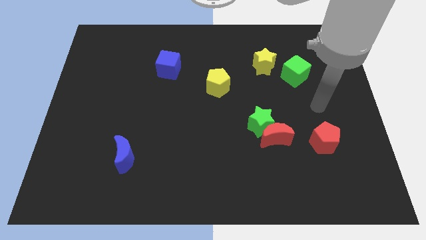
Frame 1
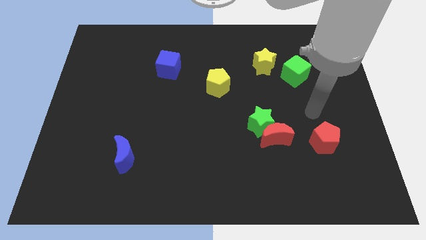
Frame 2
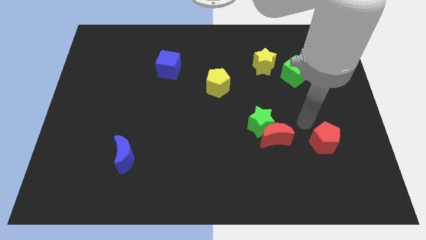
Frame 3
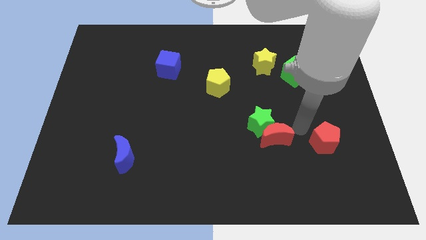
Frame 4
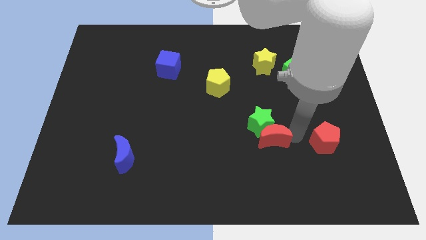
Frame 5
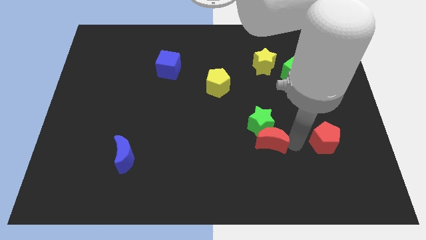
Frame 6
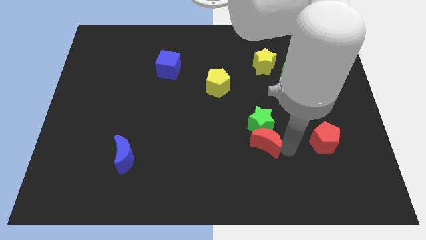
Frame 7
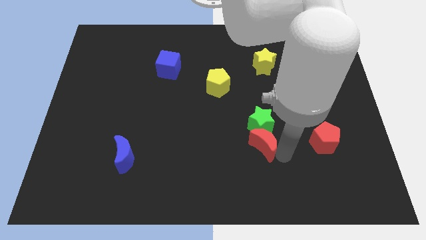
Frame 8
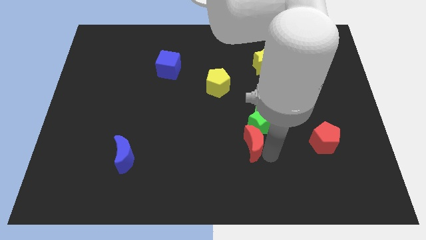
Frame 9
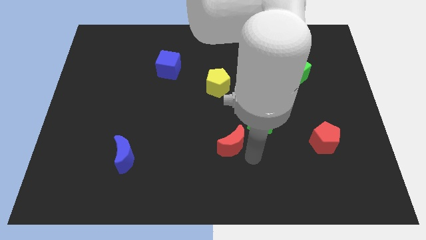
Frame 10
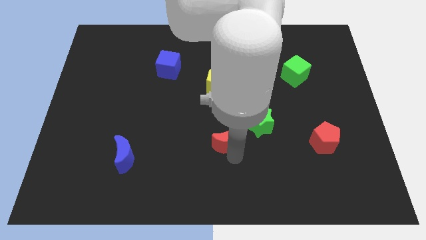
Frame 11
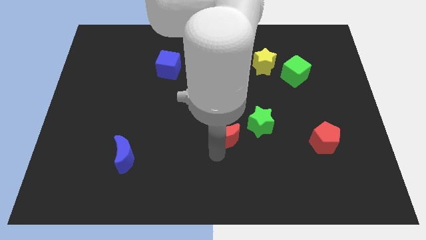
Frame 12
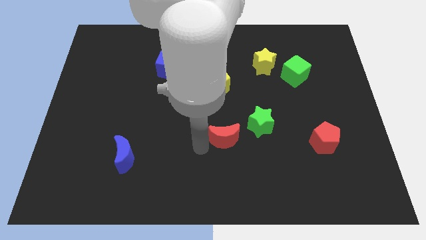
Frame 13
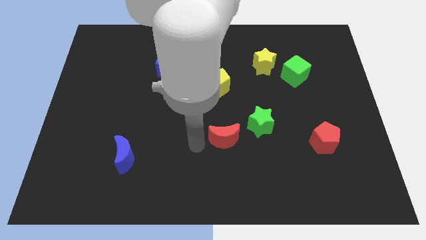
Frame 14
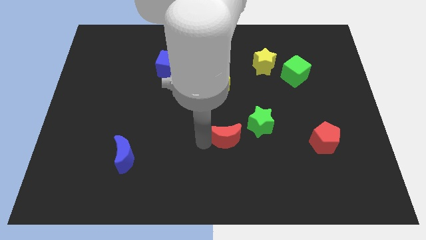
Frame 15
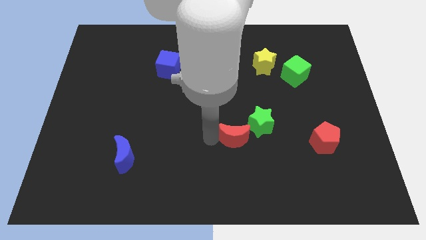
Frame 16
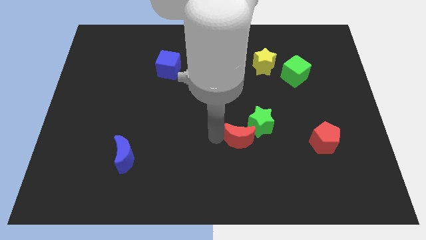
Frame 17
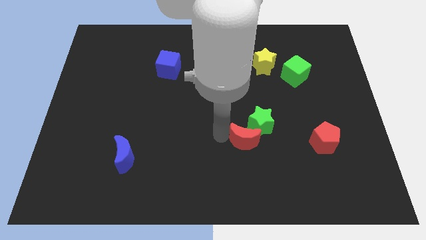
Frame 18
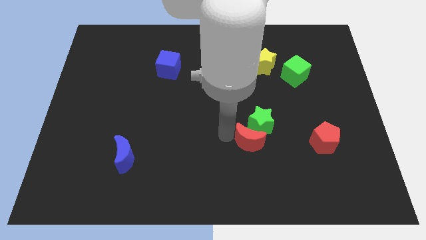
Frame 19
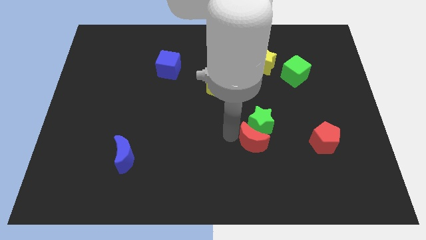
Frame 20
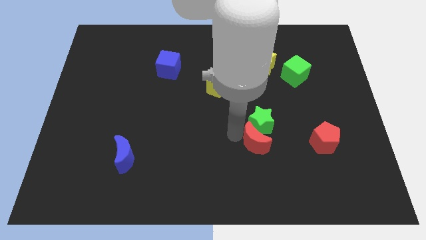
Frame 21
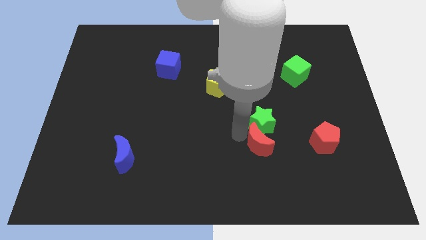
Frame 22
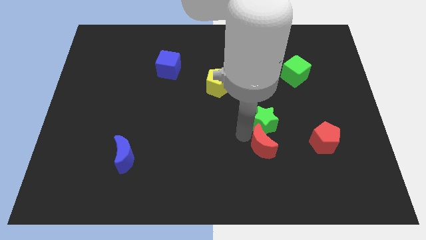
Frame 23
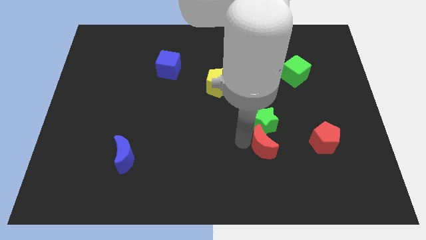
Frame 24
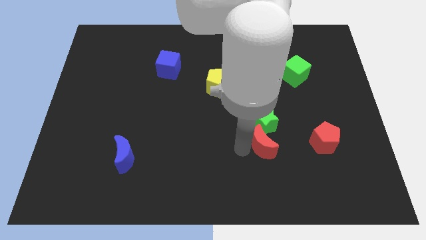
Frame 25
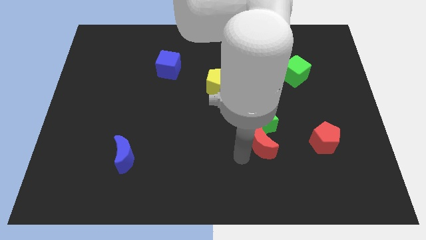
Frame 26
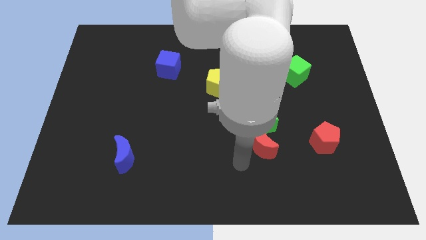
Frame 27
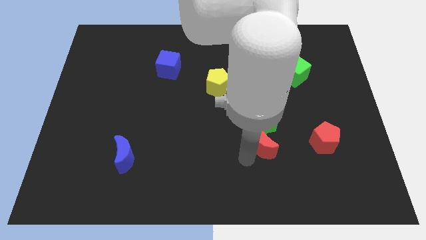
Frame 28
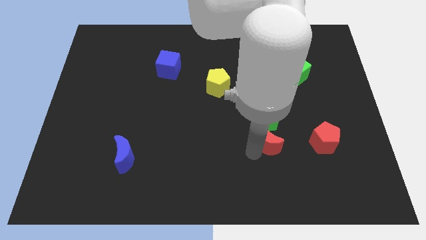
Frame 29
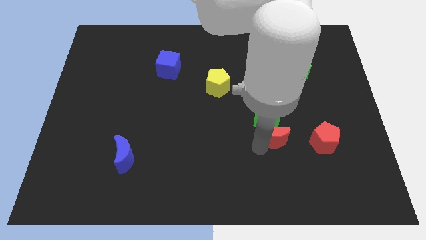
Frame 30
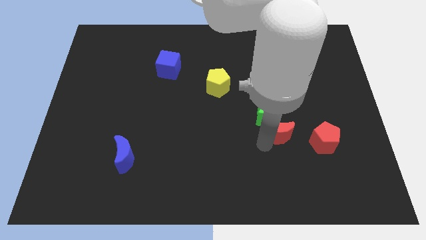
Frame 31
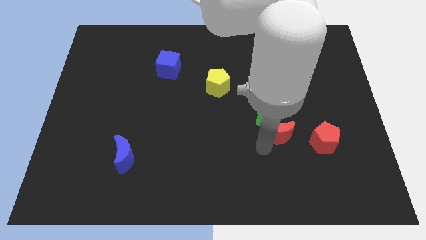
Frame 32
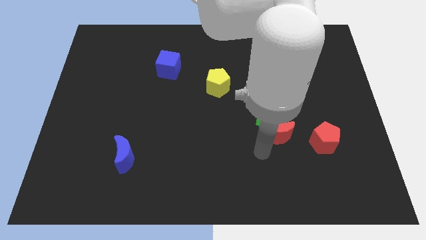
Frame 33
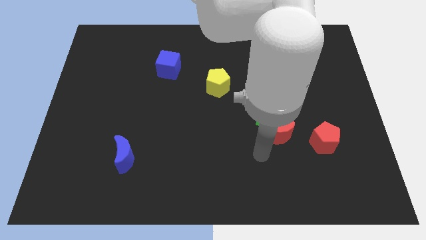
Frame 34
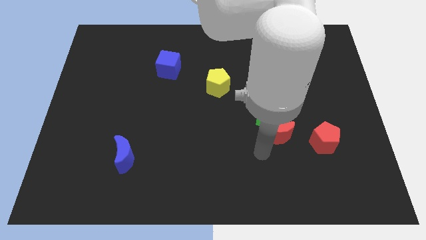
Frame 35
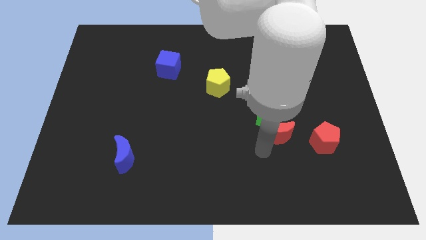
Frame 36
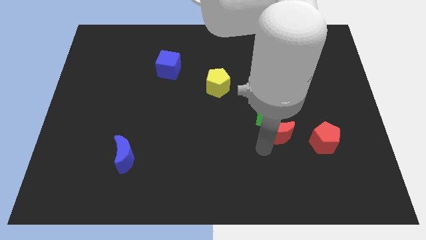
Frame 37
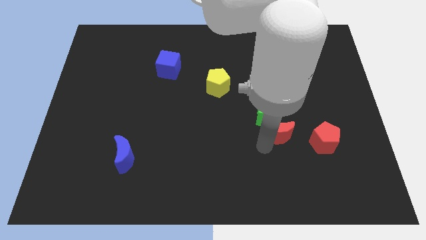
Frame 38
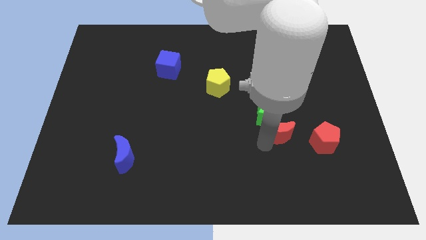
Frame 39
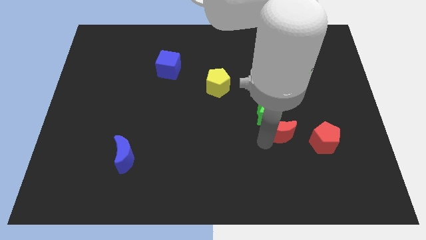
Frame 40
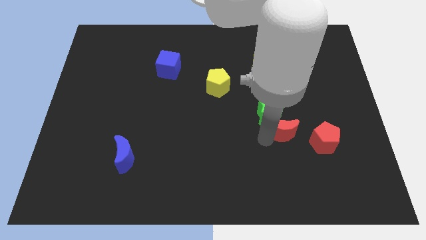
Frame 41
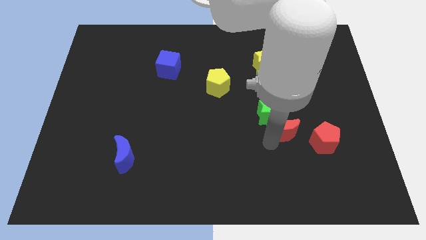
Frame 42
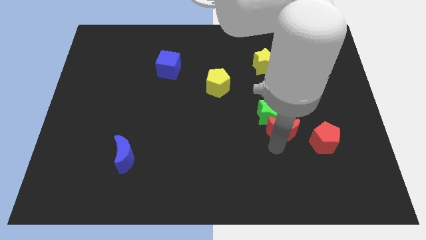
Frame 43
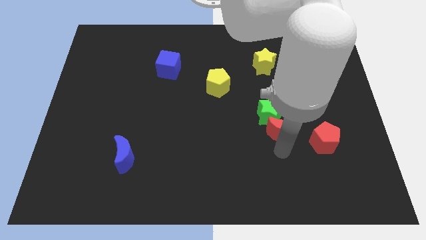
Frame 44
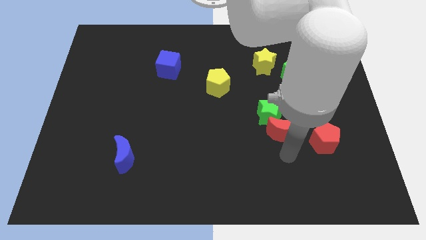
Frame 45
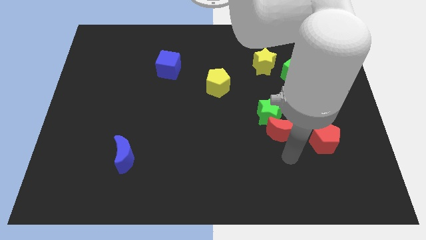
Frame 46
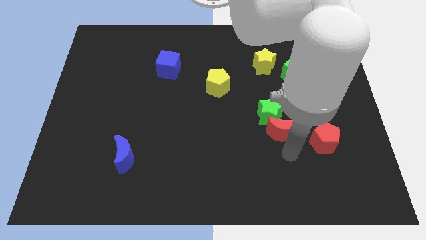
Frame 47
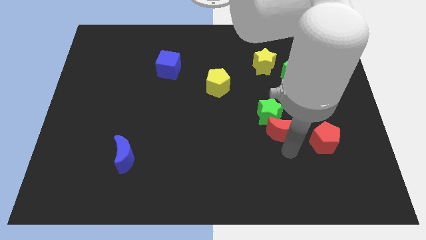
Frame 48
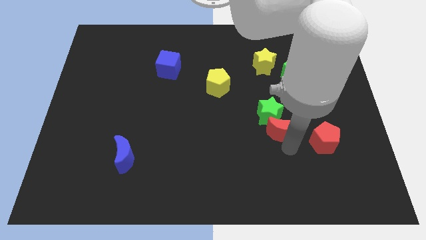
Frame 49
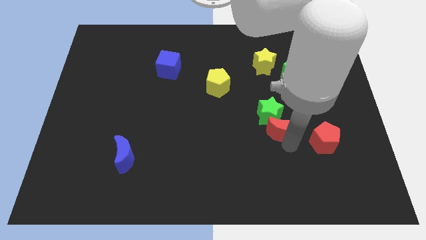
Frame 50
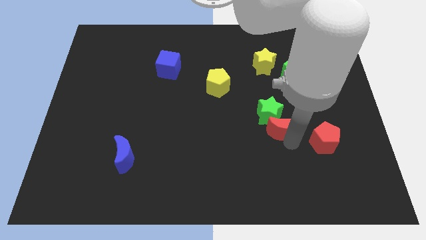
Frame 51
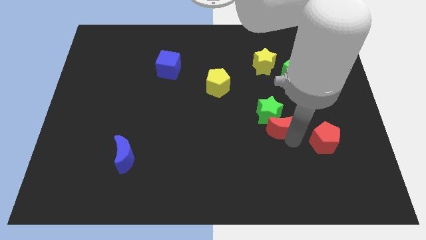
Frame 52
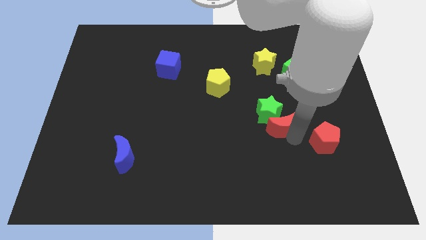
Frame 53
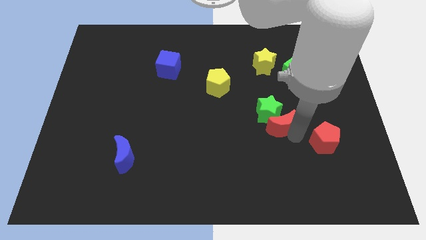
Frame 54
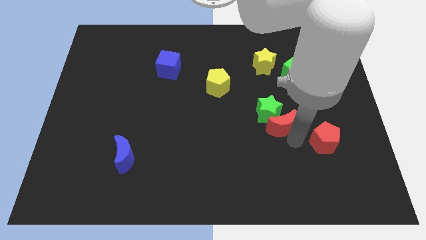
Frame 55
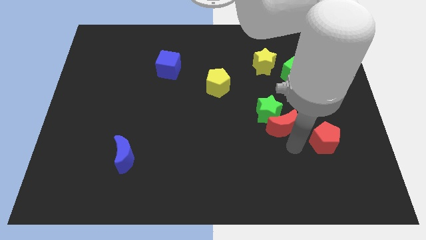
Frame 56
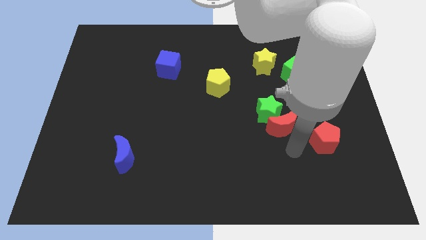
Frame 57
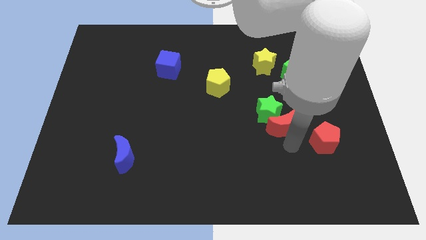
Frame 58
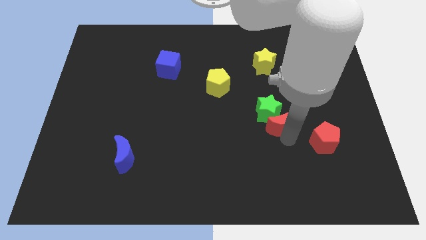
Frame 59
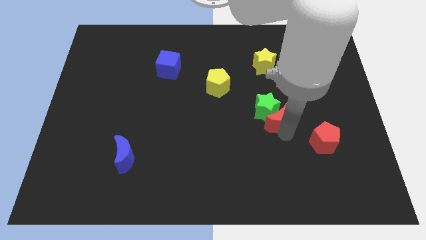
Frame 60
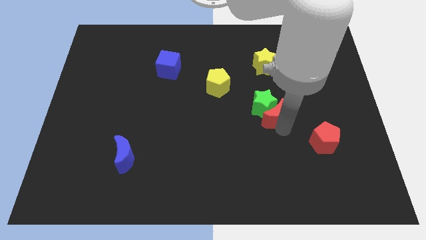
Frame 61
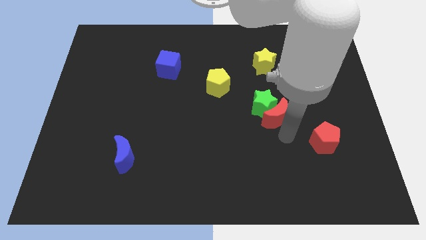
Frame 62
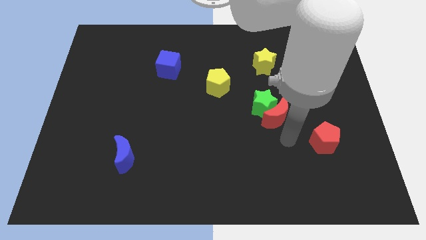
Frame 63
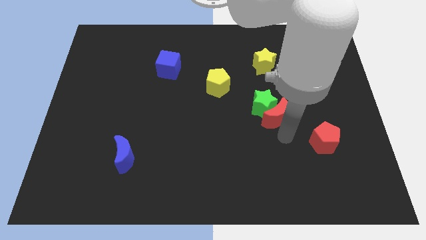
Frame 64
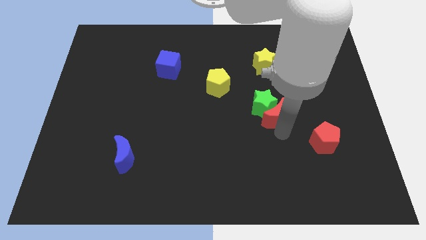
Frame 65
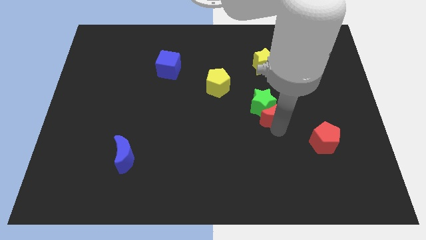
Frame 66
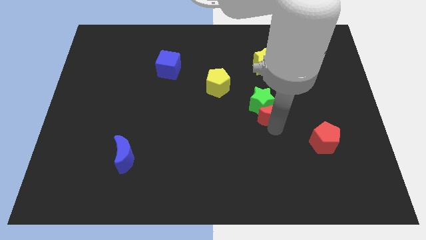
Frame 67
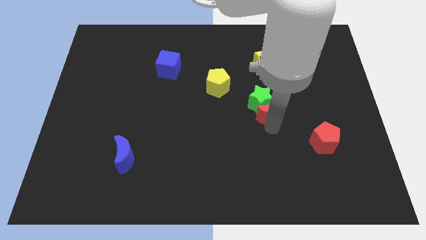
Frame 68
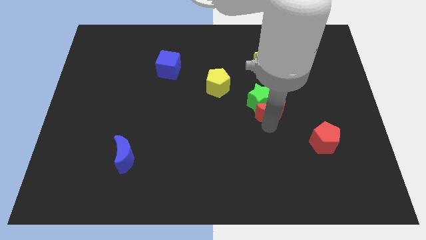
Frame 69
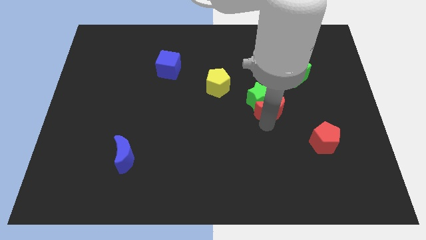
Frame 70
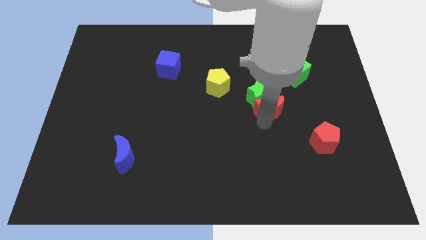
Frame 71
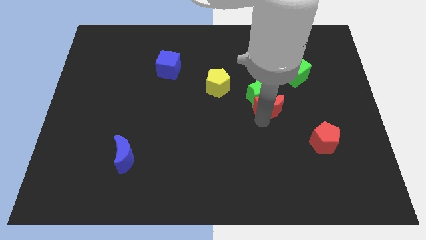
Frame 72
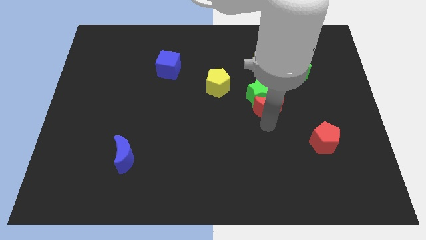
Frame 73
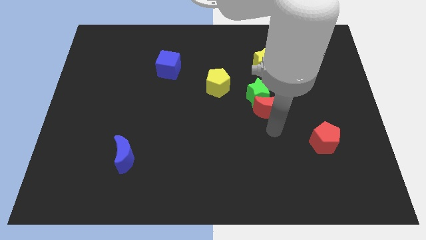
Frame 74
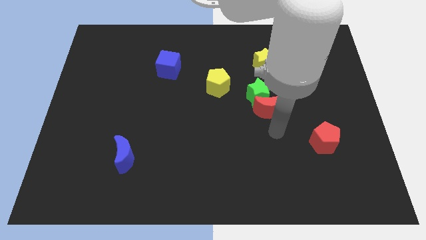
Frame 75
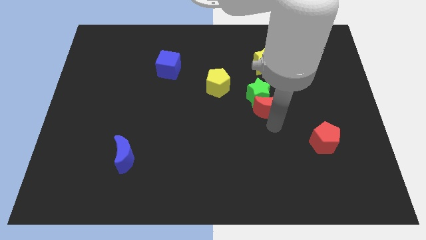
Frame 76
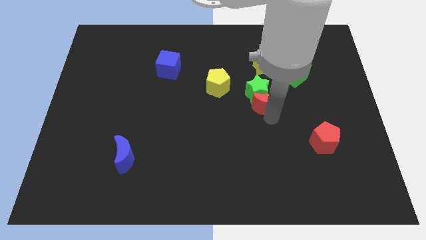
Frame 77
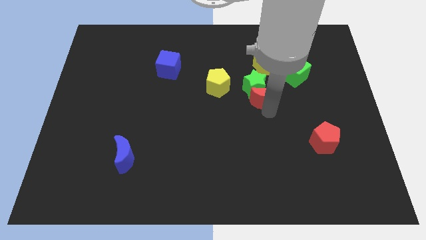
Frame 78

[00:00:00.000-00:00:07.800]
move the red moon right of the yellow pentagon

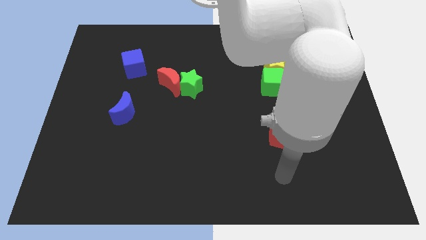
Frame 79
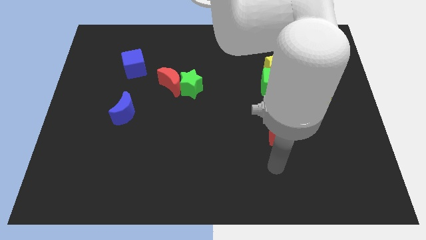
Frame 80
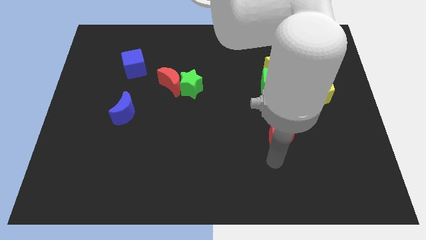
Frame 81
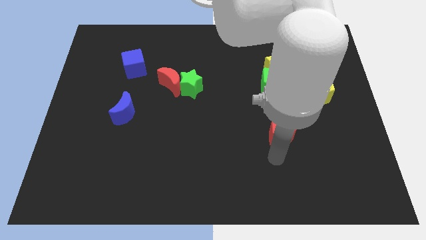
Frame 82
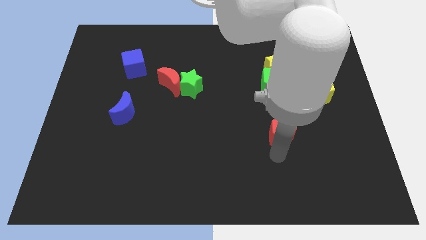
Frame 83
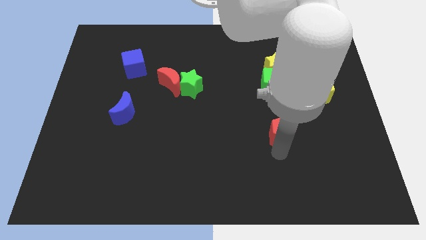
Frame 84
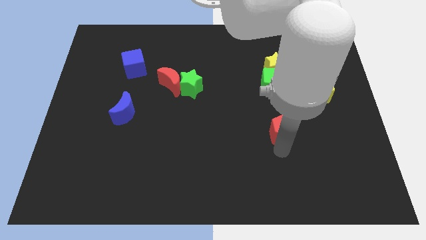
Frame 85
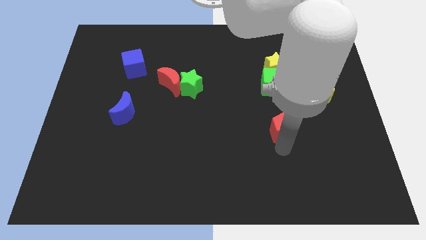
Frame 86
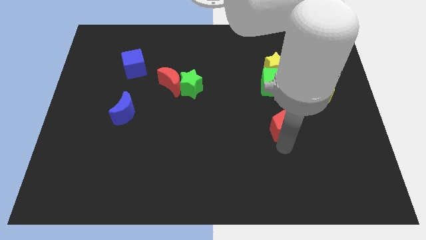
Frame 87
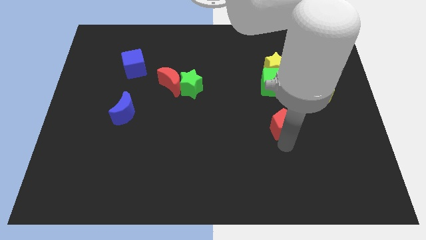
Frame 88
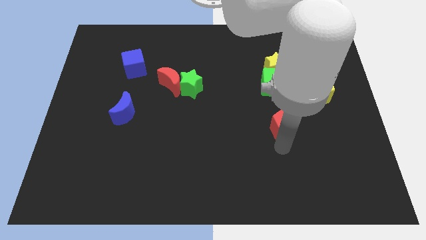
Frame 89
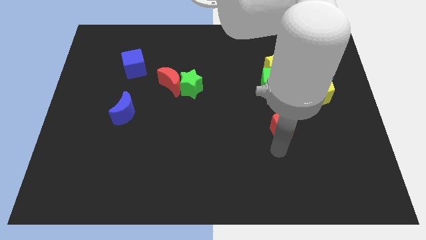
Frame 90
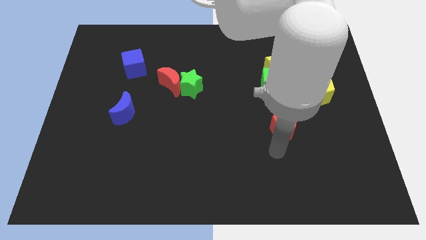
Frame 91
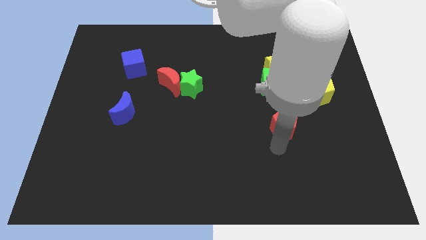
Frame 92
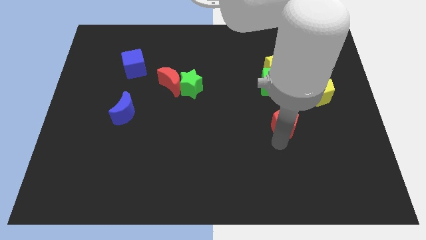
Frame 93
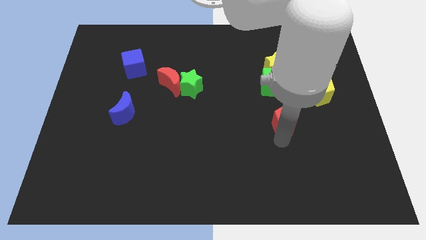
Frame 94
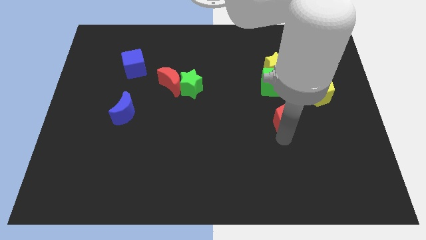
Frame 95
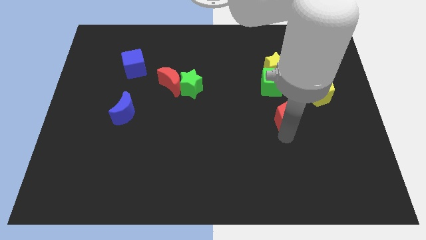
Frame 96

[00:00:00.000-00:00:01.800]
move the red pentagon below the yellow star
